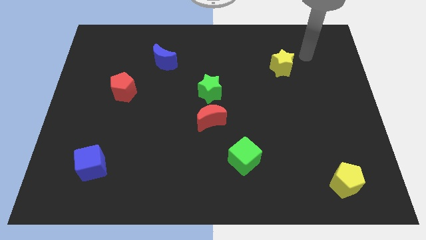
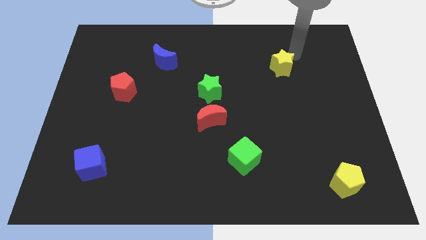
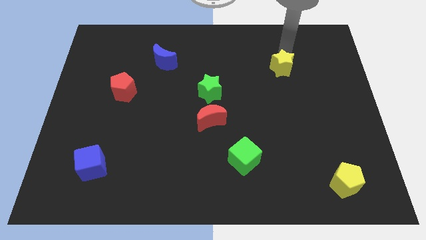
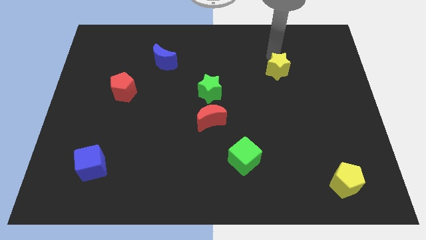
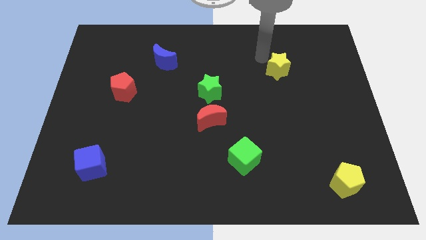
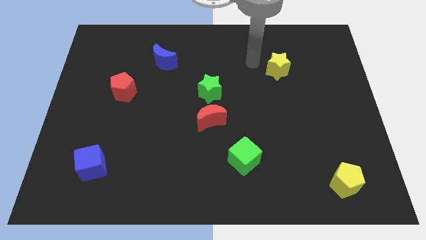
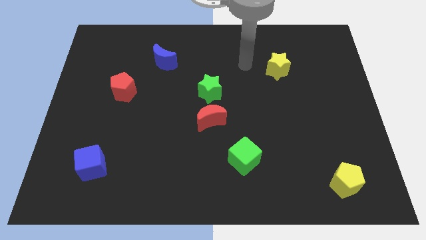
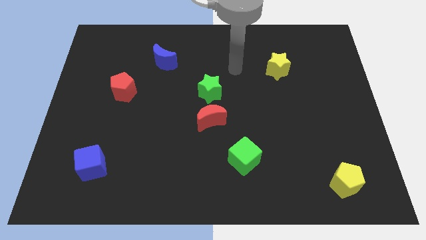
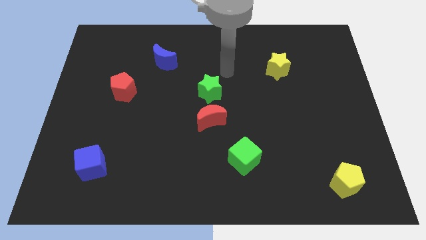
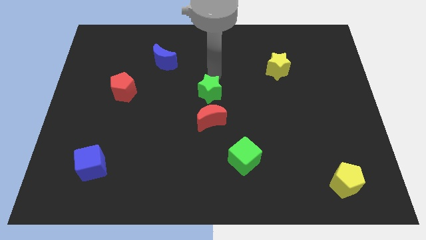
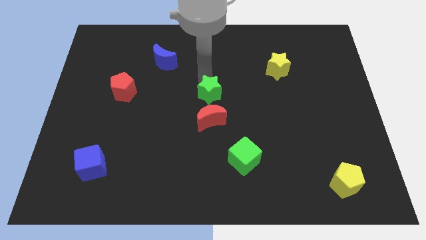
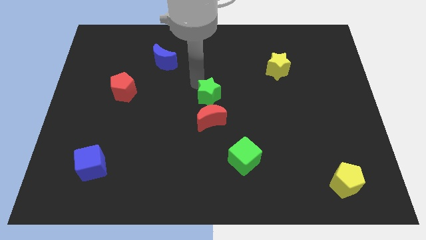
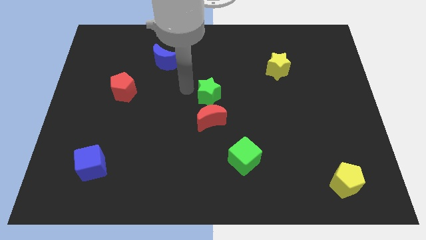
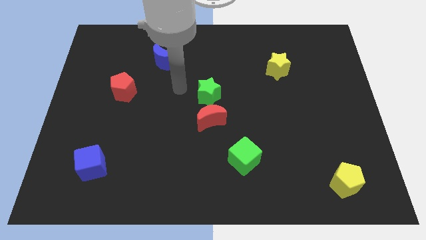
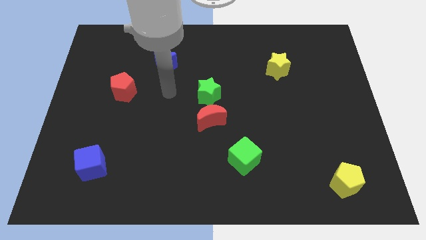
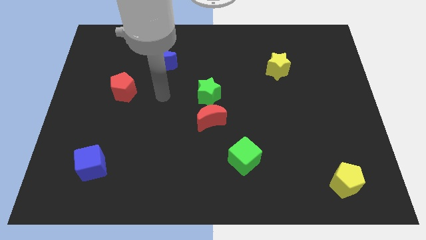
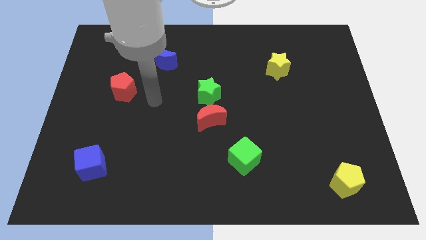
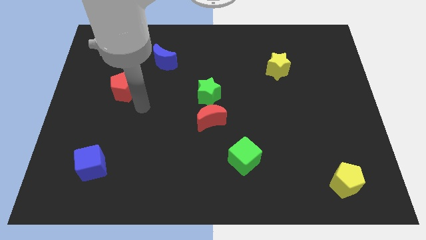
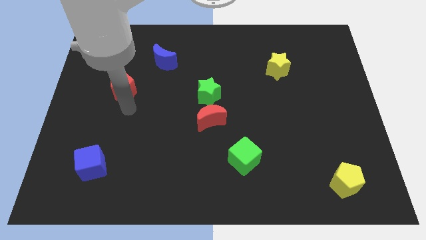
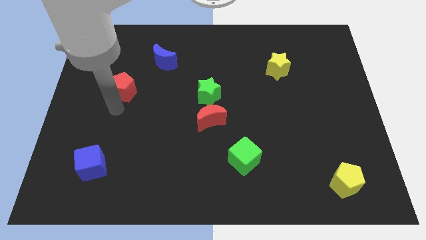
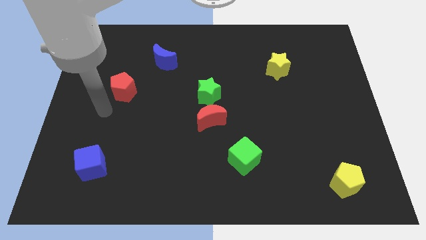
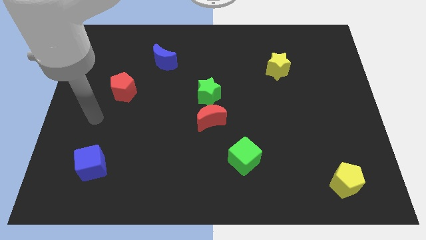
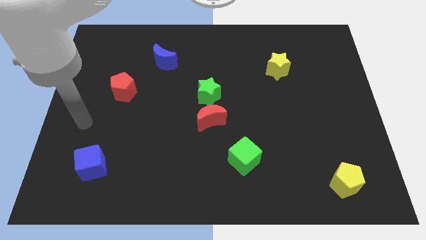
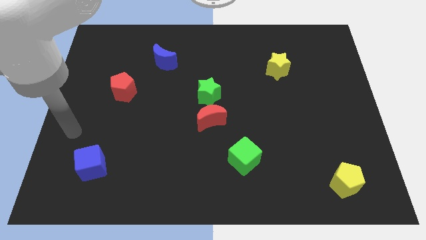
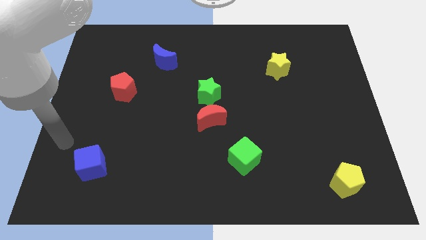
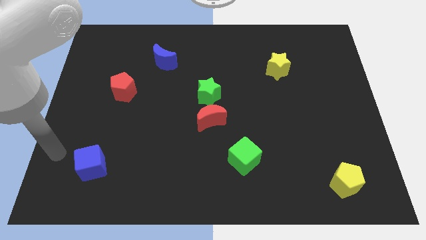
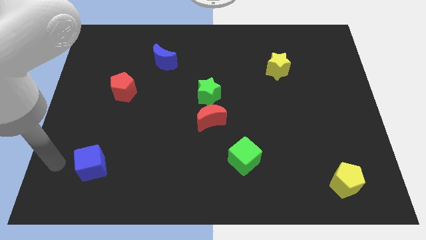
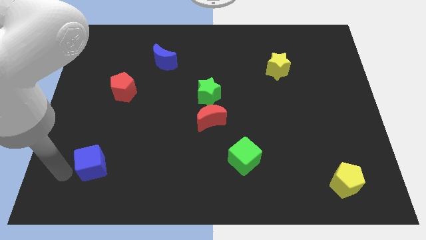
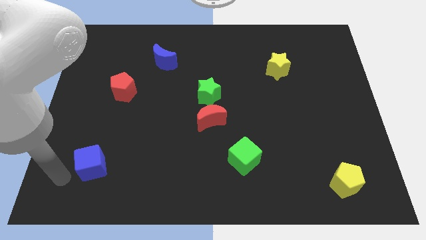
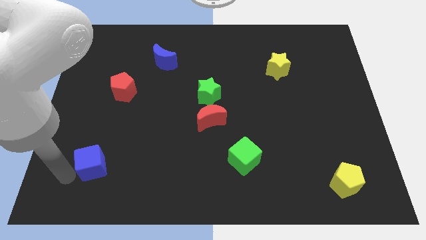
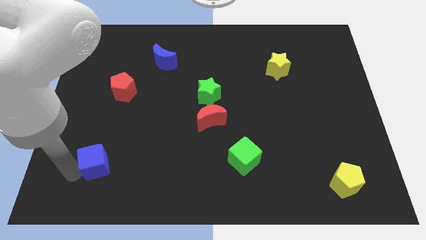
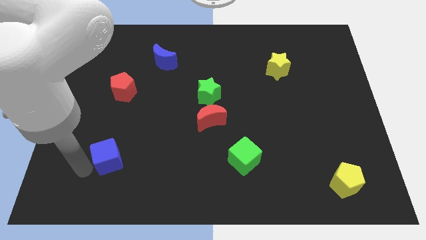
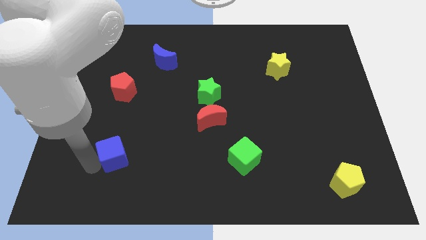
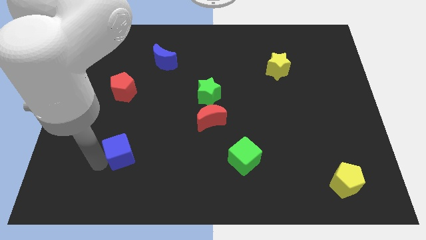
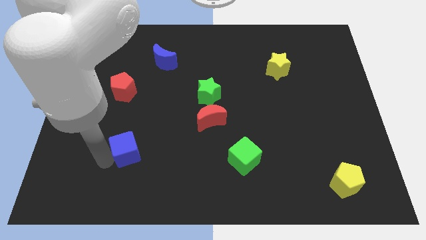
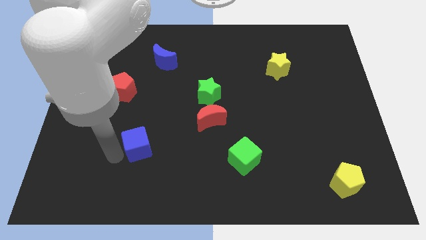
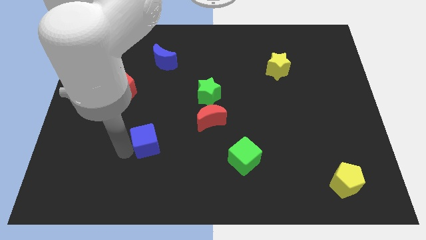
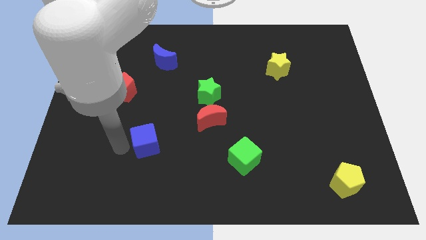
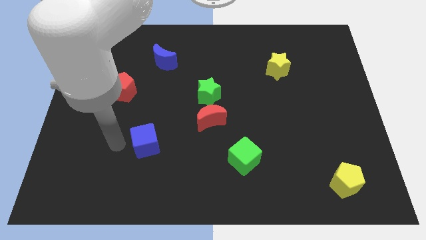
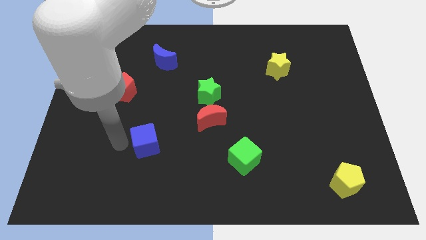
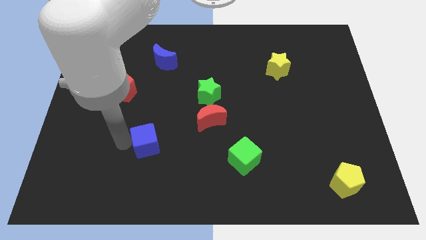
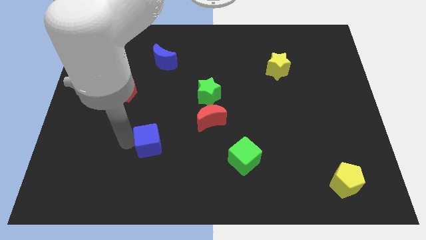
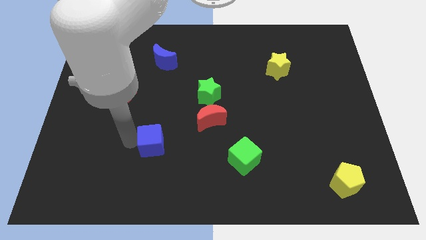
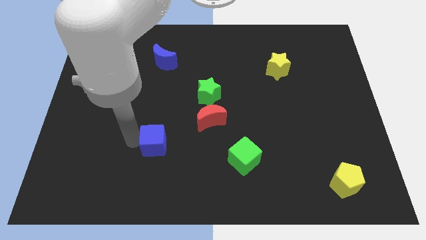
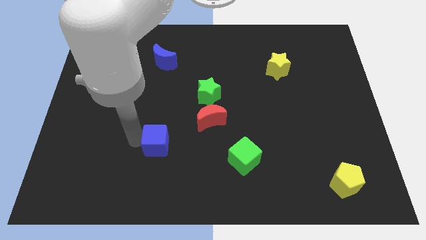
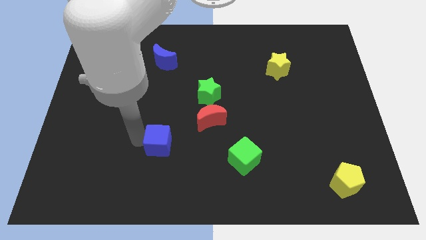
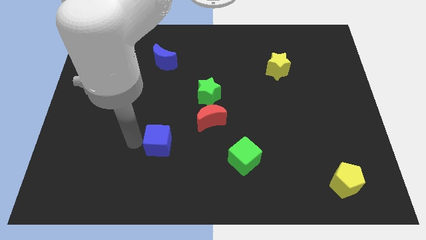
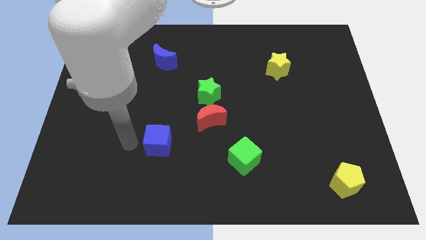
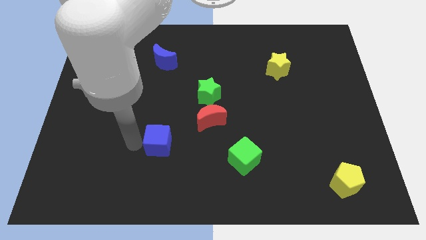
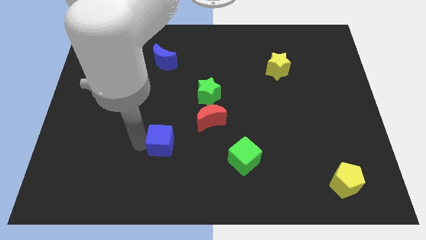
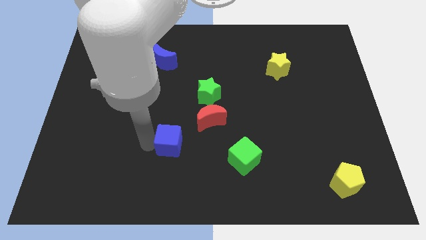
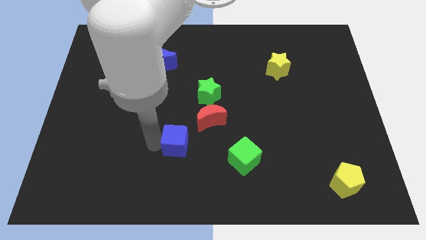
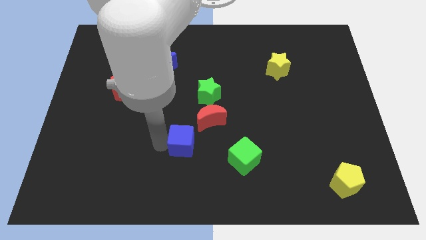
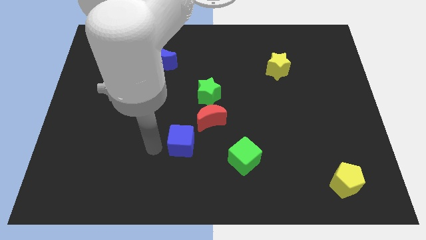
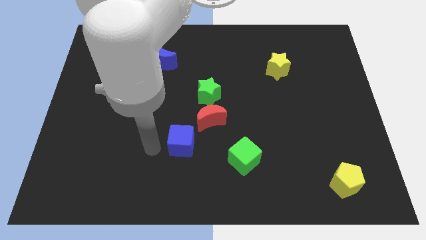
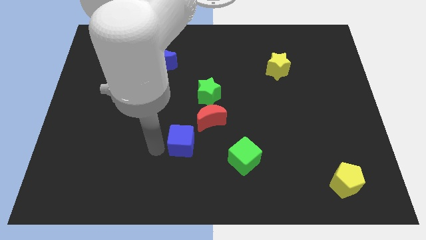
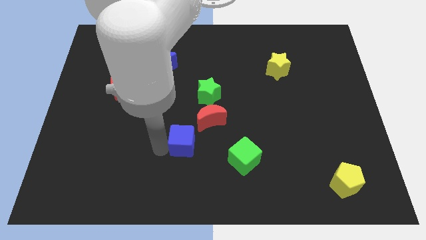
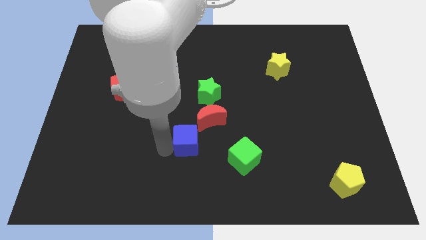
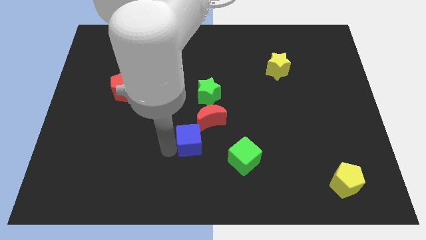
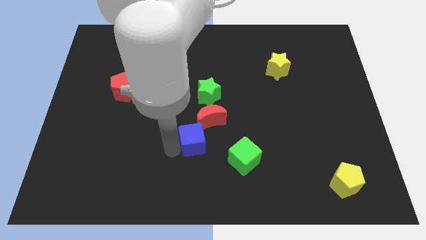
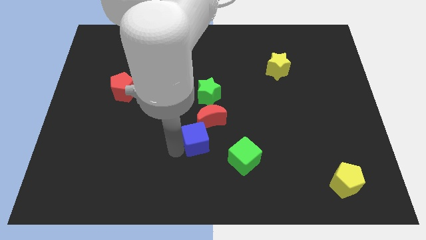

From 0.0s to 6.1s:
move the blue cube to the top left of the green cube
